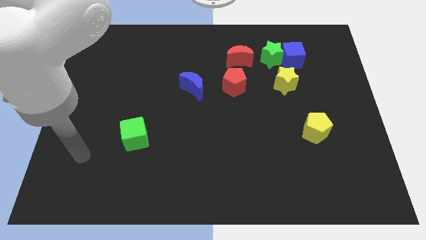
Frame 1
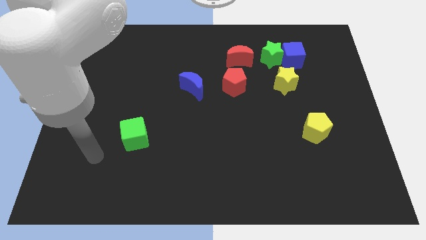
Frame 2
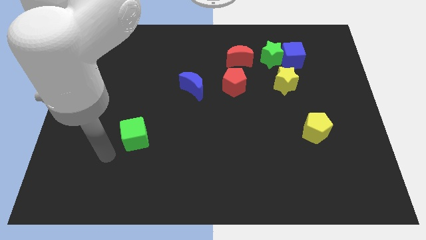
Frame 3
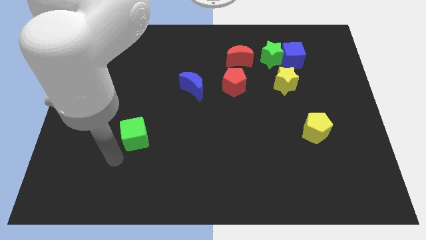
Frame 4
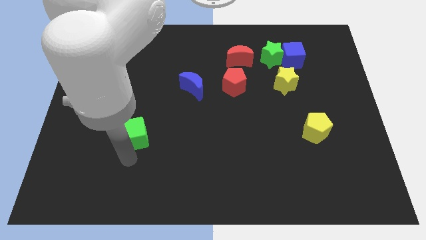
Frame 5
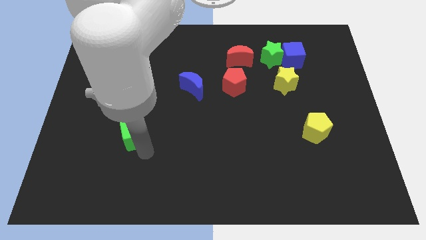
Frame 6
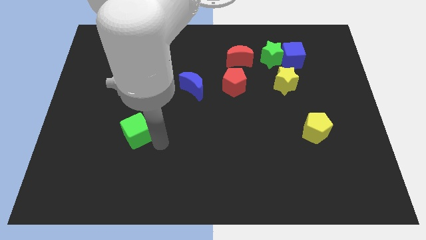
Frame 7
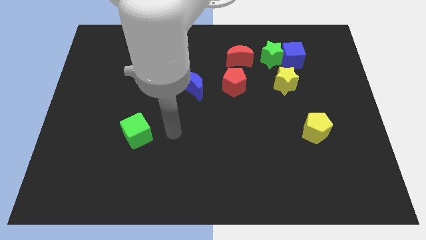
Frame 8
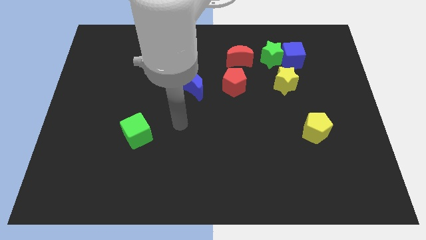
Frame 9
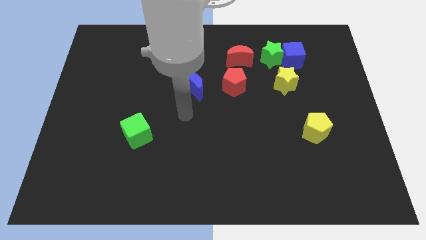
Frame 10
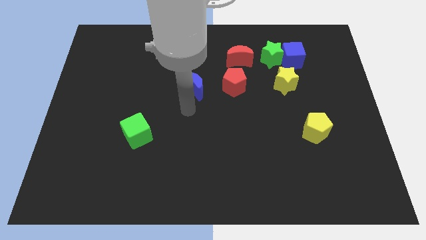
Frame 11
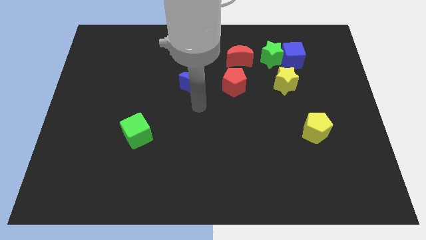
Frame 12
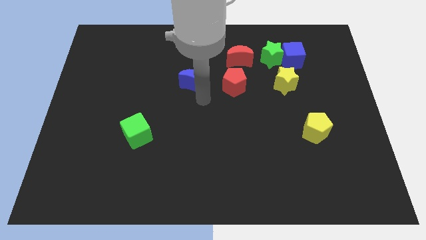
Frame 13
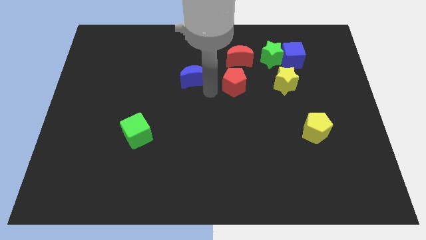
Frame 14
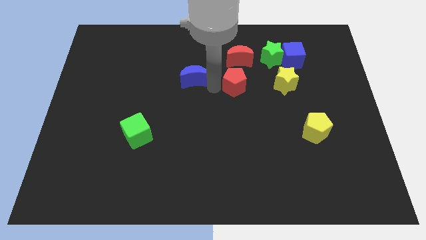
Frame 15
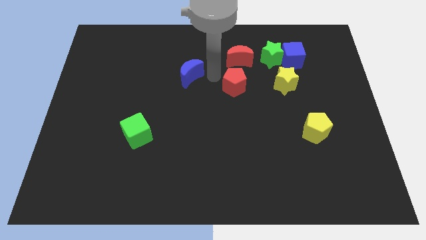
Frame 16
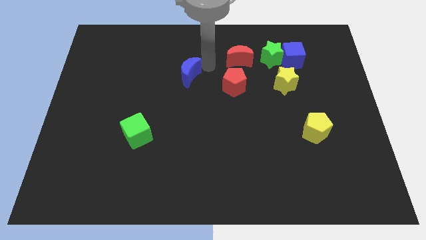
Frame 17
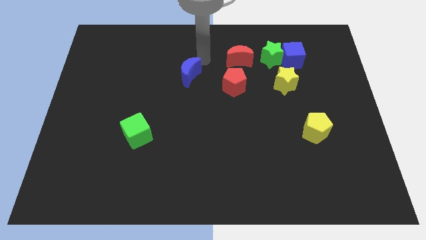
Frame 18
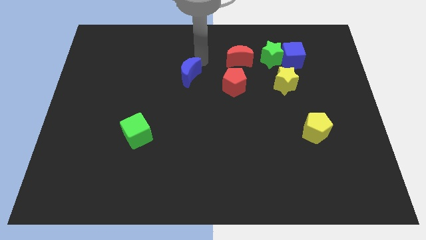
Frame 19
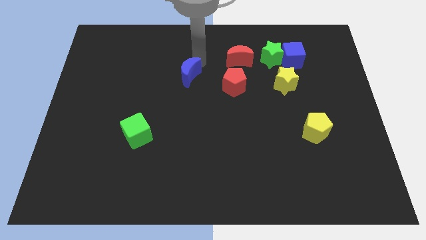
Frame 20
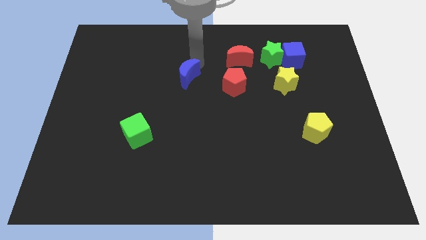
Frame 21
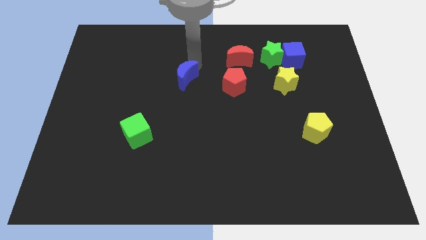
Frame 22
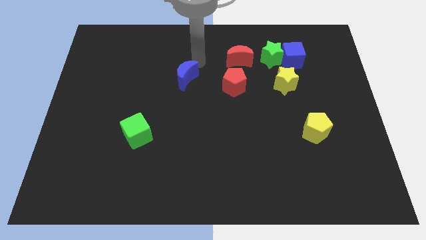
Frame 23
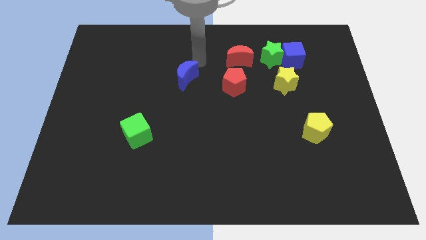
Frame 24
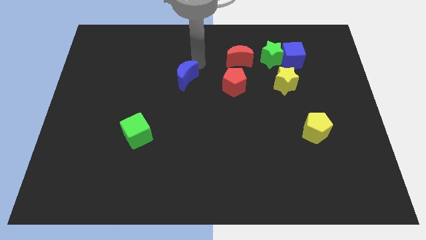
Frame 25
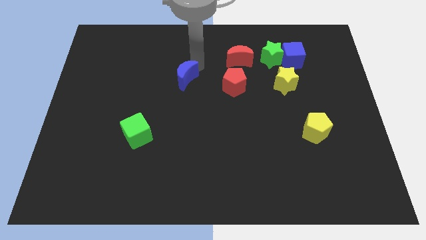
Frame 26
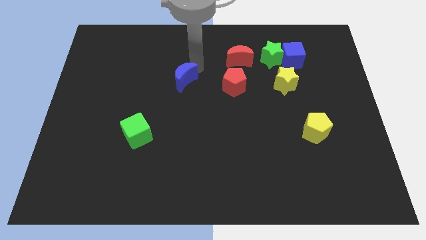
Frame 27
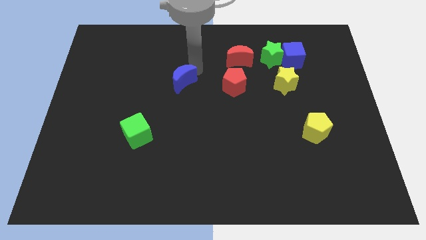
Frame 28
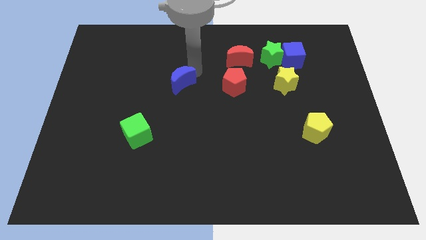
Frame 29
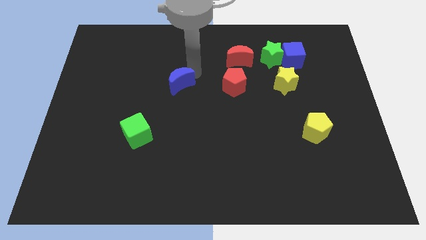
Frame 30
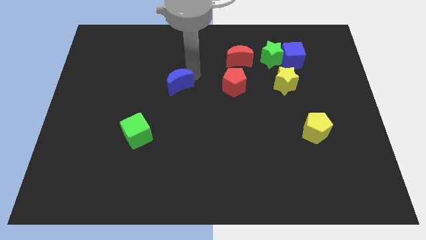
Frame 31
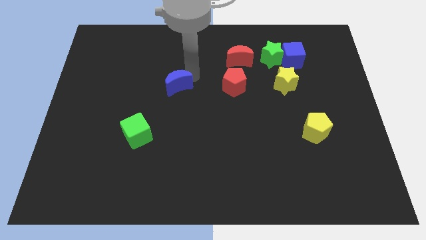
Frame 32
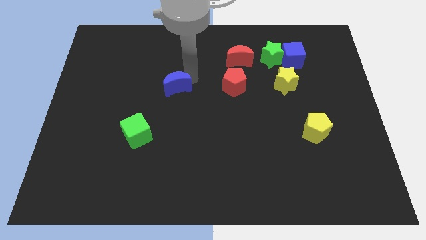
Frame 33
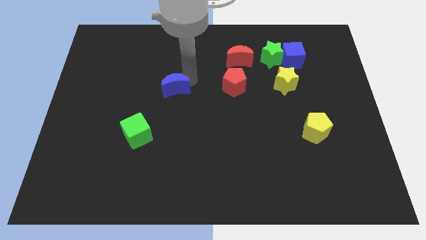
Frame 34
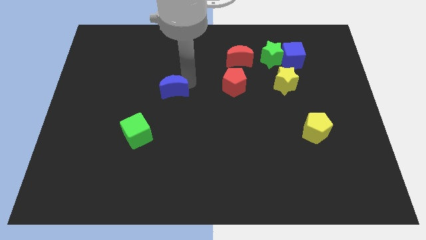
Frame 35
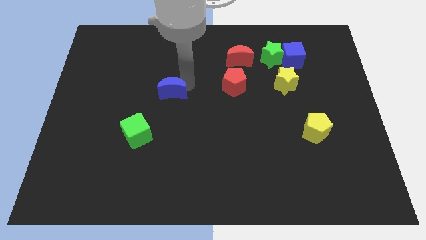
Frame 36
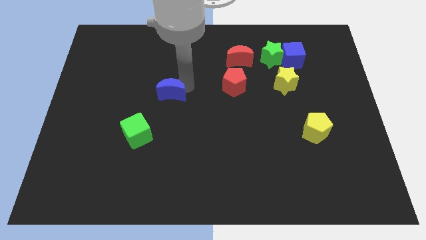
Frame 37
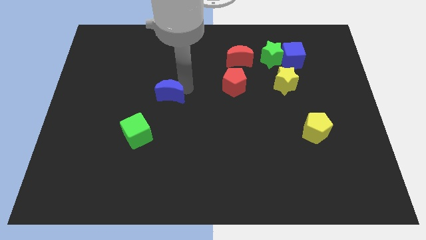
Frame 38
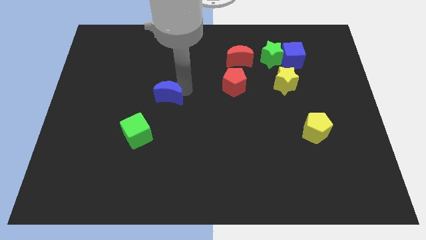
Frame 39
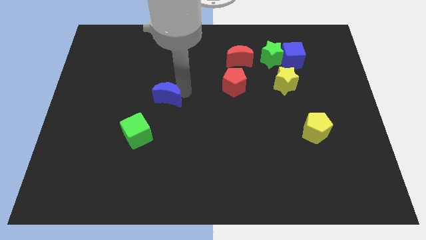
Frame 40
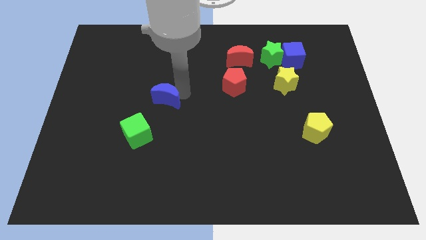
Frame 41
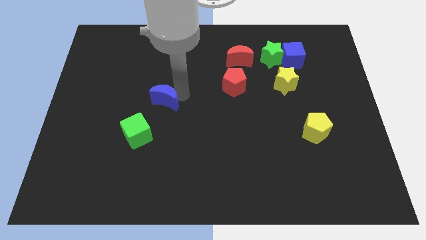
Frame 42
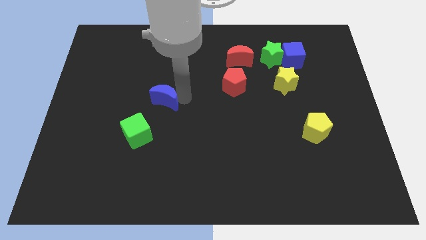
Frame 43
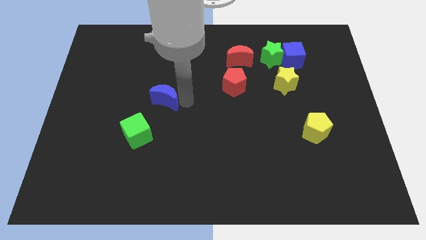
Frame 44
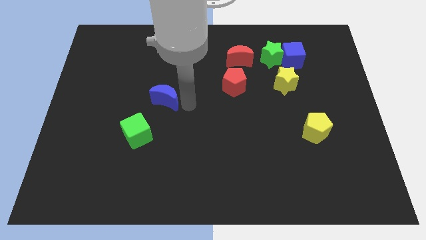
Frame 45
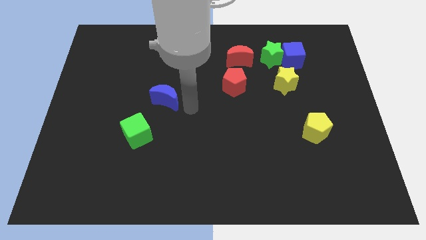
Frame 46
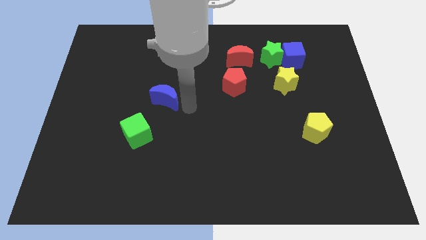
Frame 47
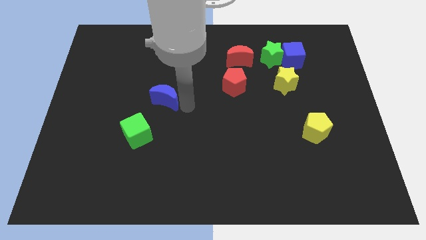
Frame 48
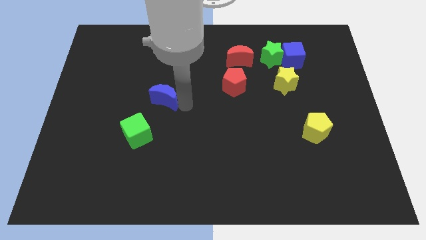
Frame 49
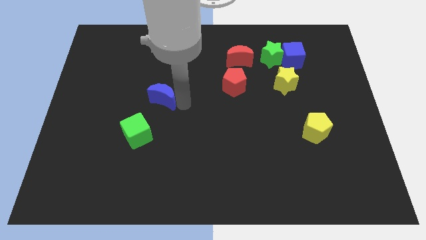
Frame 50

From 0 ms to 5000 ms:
push the blue moon to the left a little bit

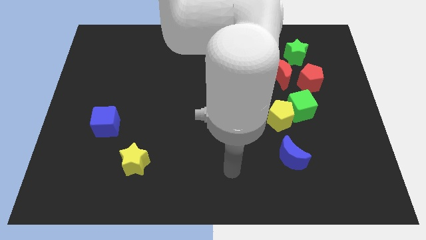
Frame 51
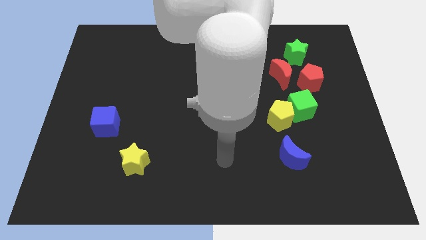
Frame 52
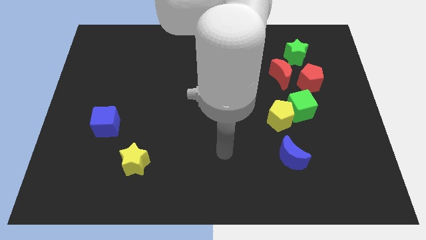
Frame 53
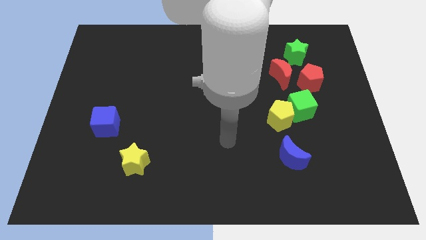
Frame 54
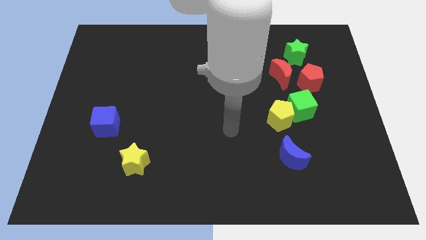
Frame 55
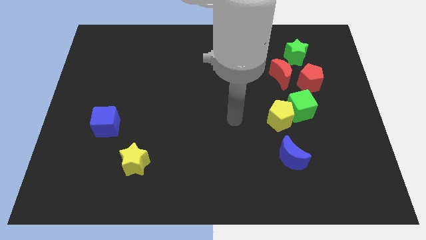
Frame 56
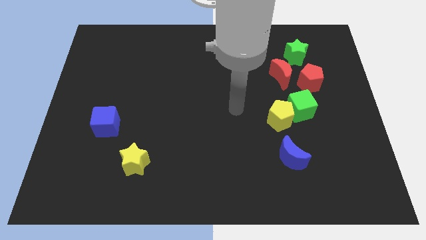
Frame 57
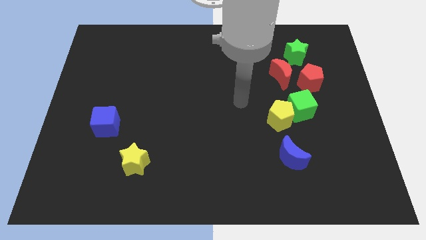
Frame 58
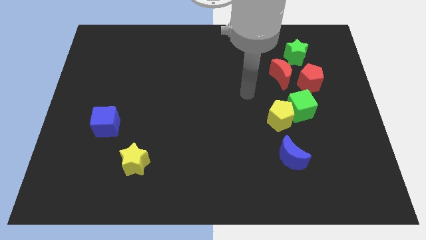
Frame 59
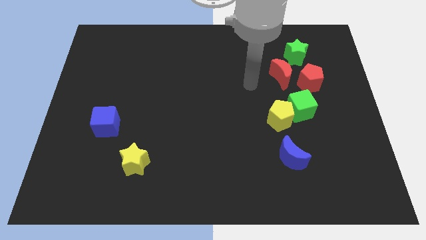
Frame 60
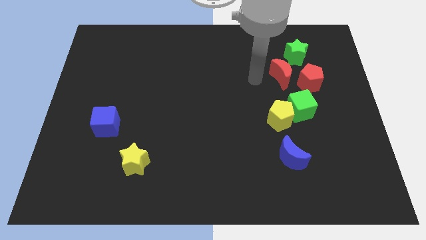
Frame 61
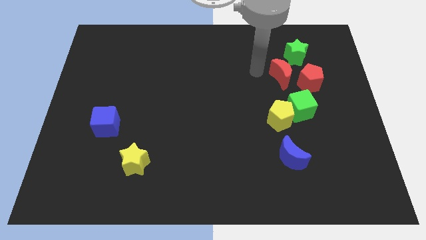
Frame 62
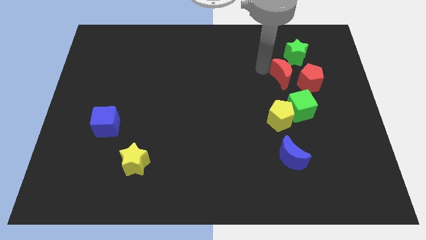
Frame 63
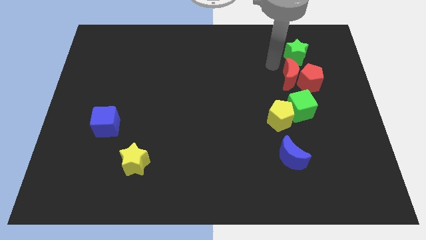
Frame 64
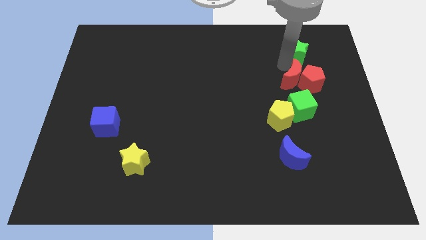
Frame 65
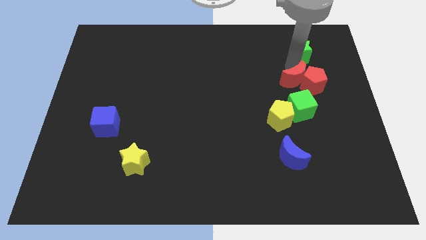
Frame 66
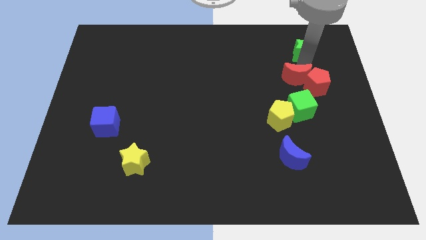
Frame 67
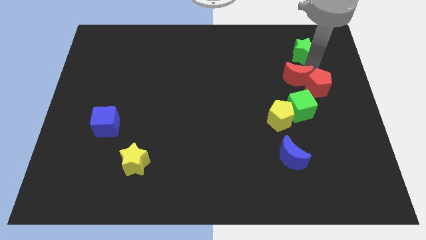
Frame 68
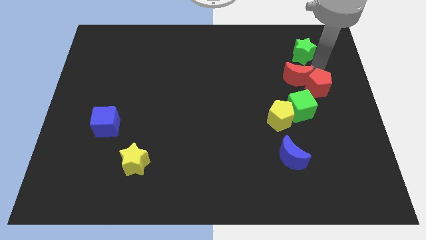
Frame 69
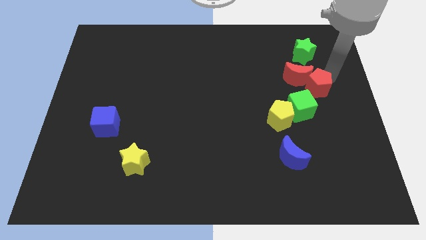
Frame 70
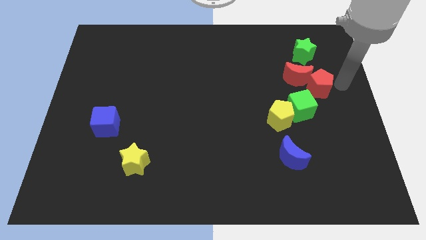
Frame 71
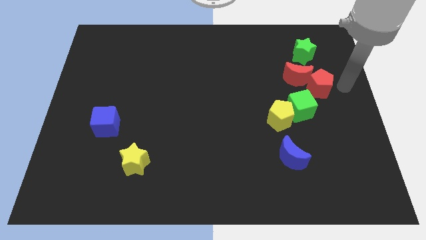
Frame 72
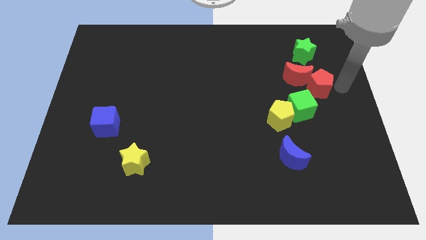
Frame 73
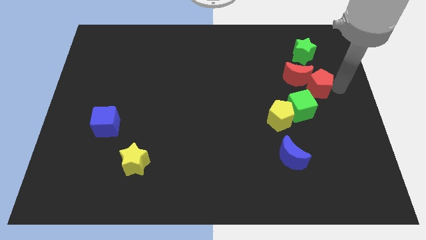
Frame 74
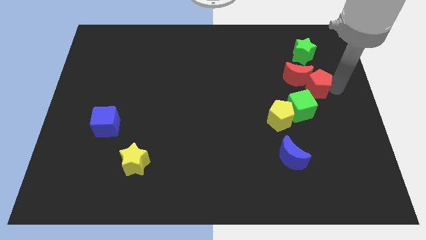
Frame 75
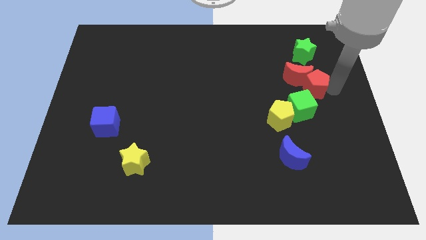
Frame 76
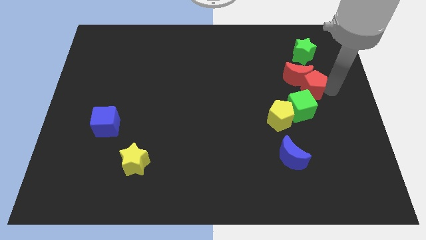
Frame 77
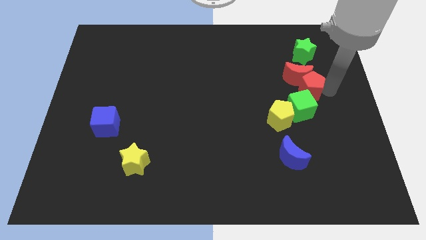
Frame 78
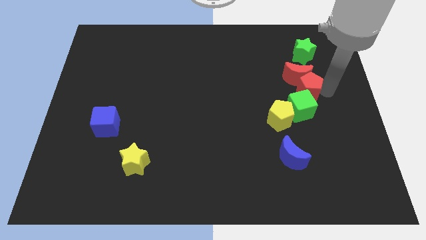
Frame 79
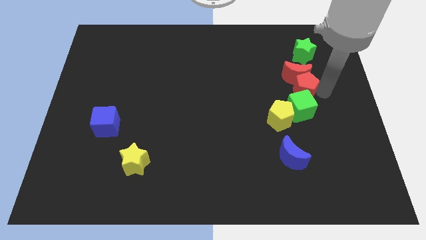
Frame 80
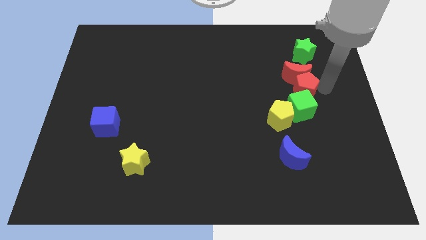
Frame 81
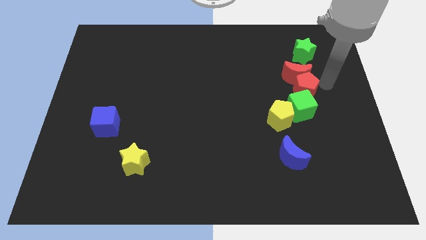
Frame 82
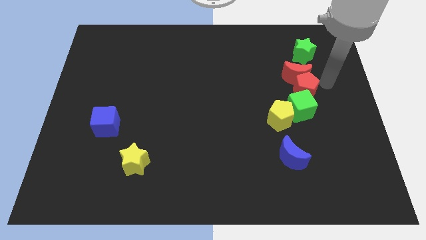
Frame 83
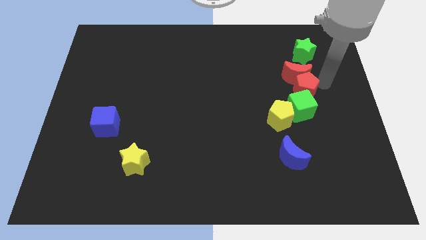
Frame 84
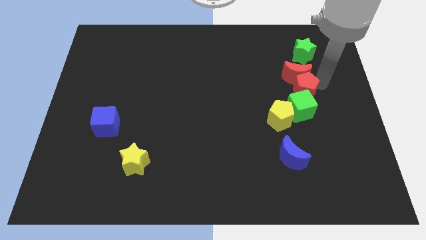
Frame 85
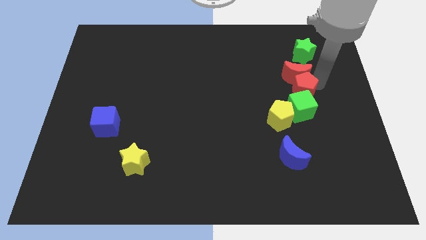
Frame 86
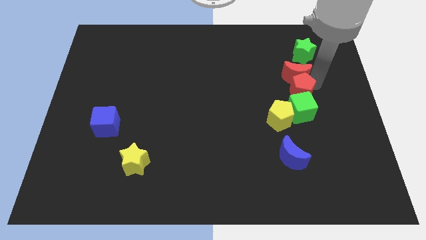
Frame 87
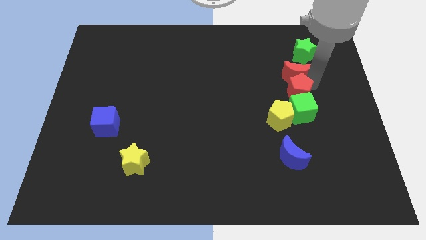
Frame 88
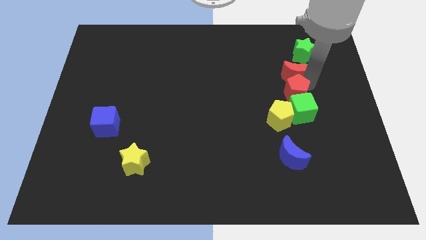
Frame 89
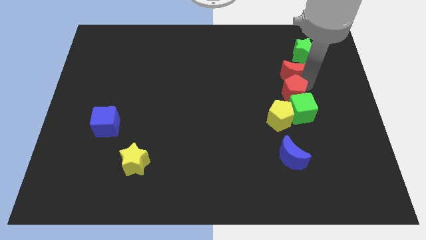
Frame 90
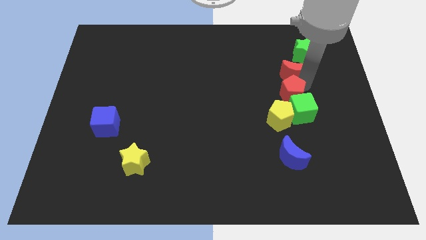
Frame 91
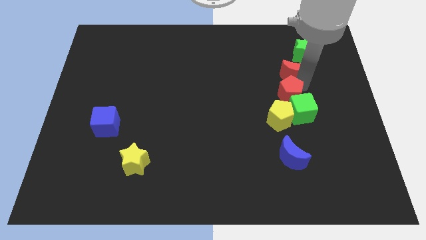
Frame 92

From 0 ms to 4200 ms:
push the red pentagon down and then to the left a little bit
